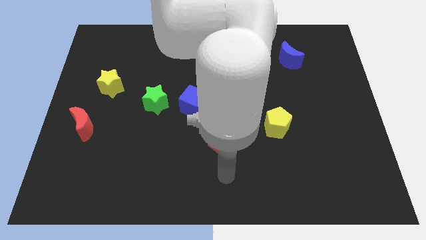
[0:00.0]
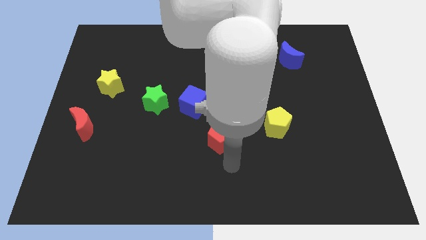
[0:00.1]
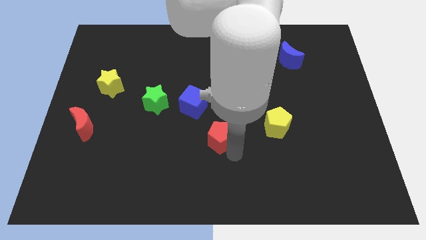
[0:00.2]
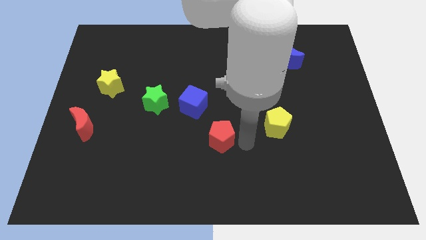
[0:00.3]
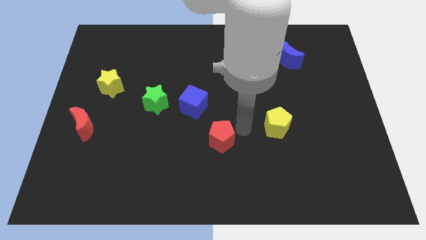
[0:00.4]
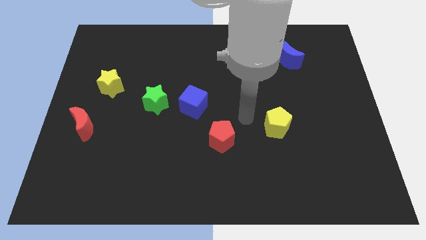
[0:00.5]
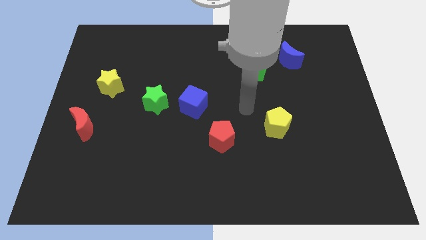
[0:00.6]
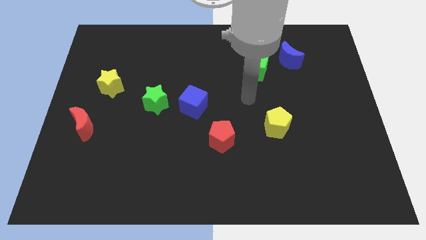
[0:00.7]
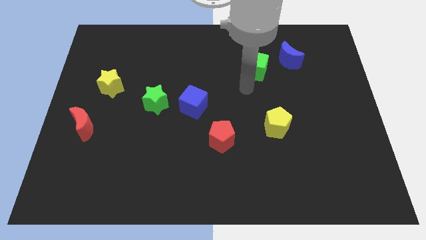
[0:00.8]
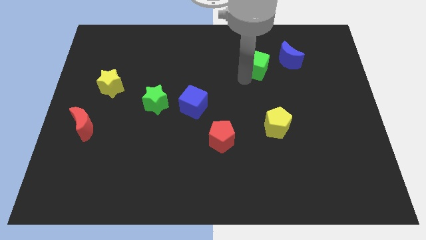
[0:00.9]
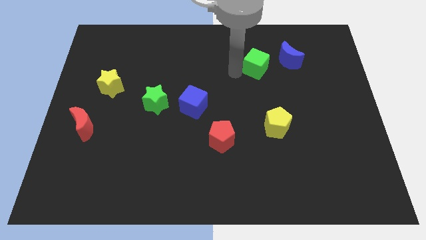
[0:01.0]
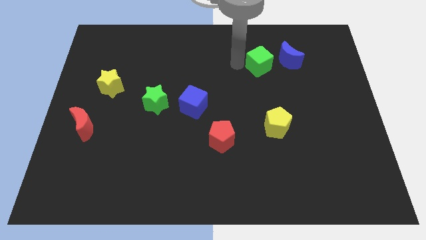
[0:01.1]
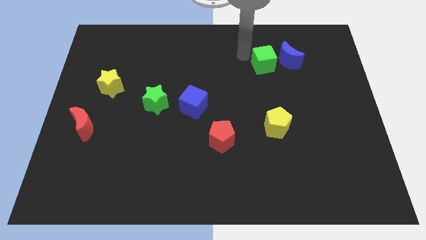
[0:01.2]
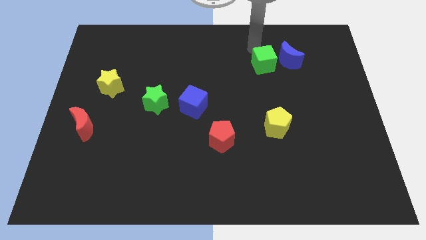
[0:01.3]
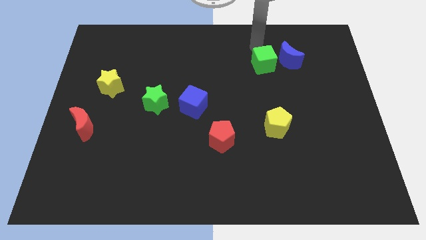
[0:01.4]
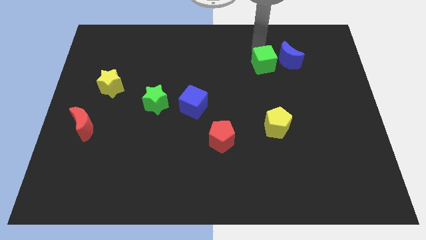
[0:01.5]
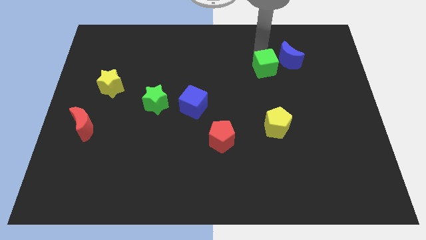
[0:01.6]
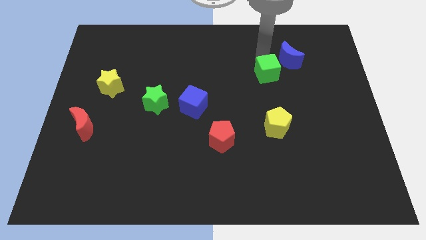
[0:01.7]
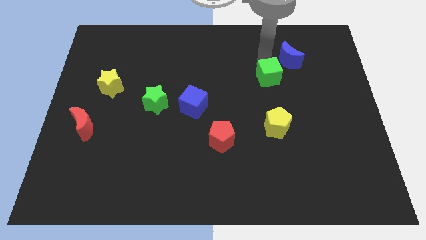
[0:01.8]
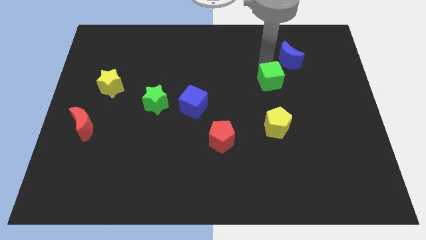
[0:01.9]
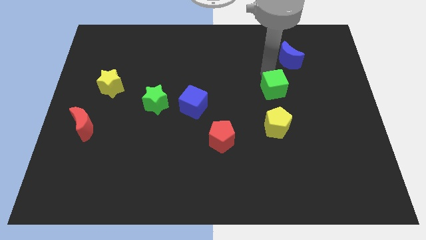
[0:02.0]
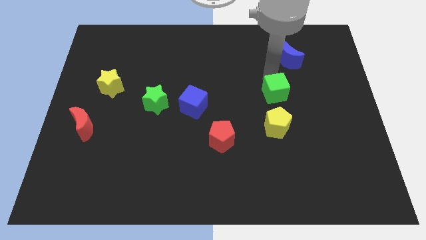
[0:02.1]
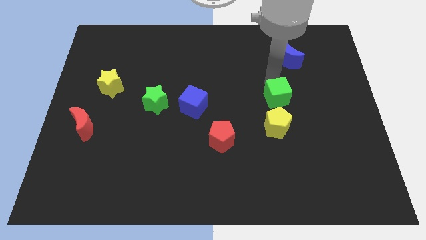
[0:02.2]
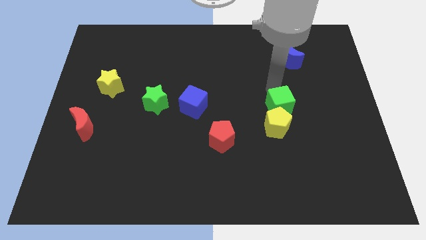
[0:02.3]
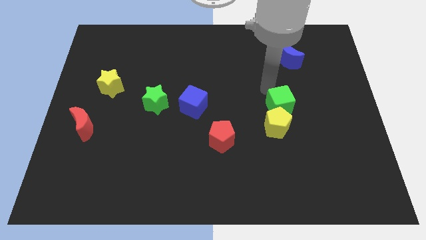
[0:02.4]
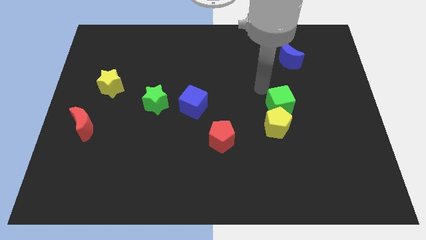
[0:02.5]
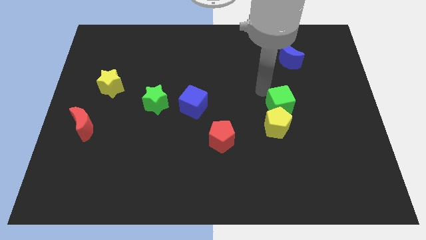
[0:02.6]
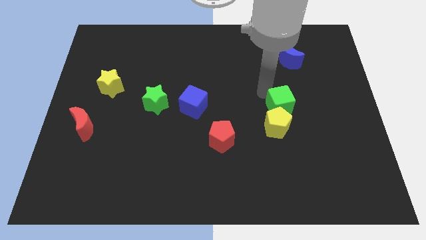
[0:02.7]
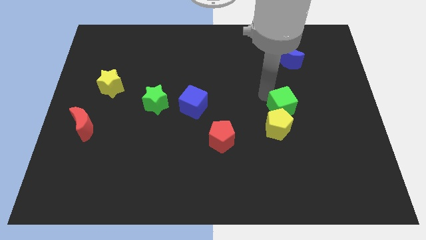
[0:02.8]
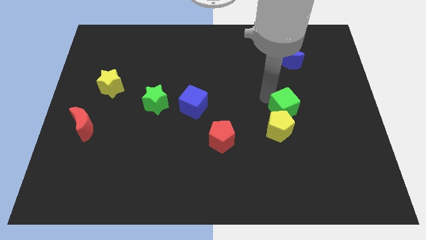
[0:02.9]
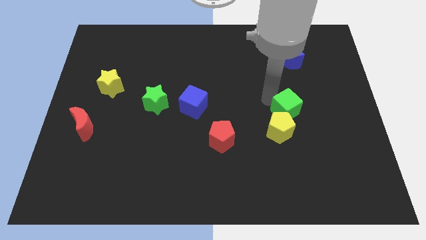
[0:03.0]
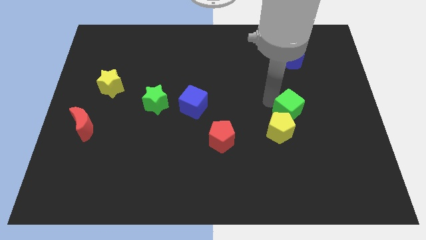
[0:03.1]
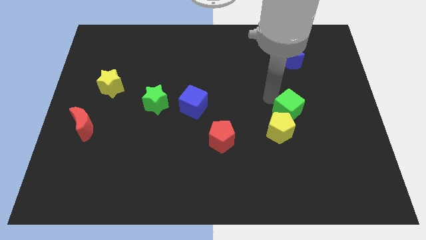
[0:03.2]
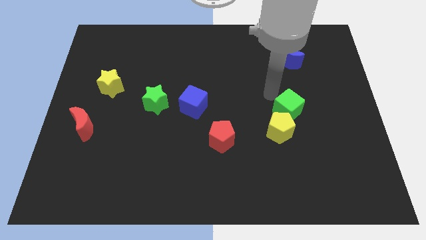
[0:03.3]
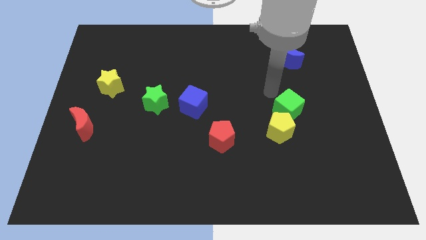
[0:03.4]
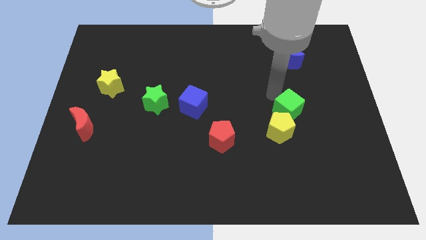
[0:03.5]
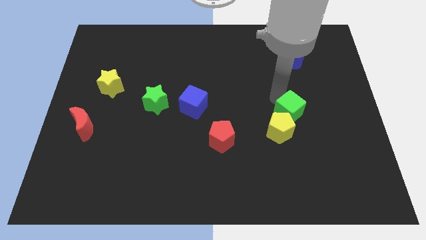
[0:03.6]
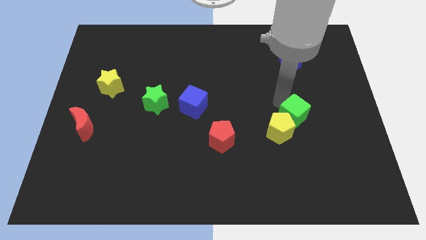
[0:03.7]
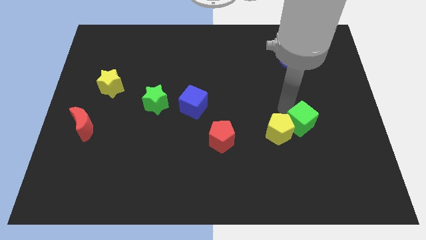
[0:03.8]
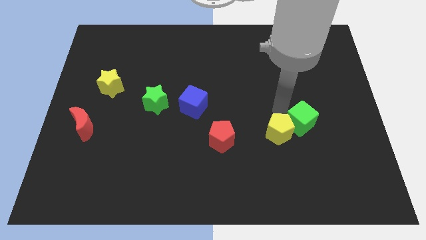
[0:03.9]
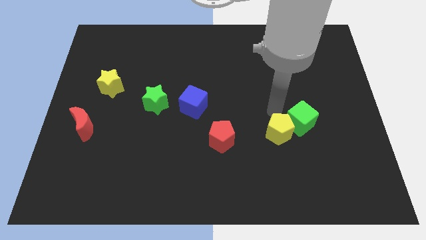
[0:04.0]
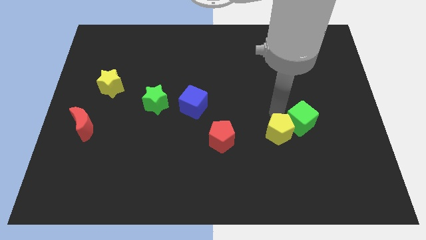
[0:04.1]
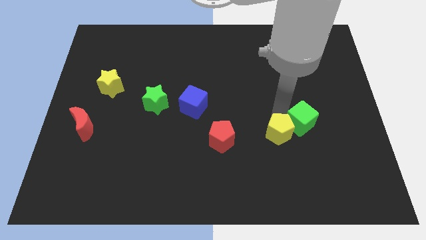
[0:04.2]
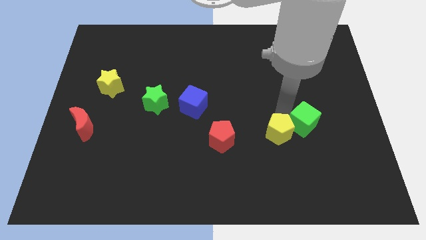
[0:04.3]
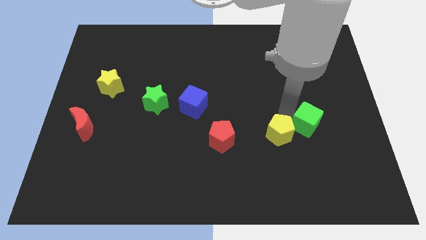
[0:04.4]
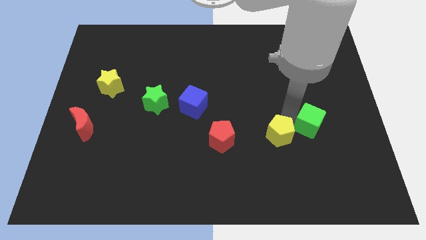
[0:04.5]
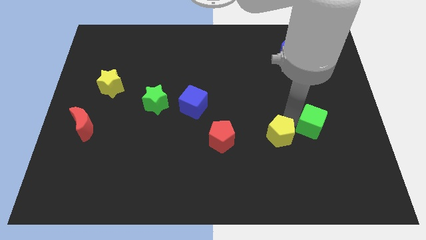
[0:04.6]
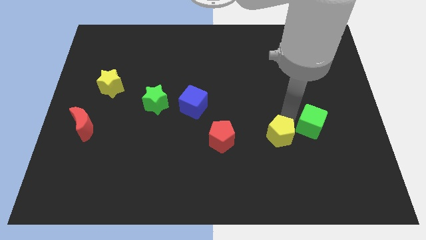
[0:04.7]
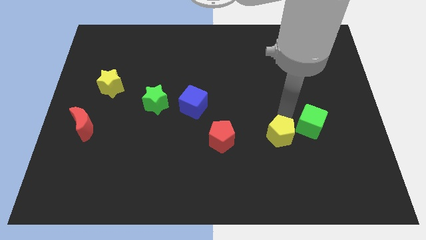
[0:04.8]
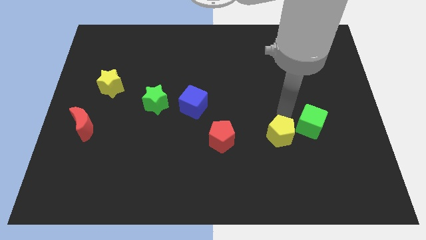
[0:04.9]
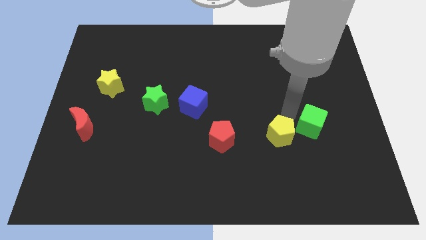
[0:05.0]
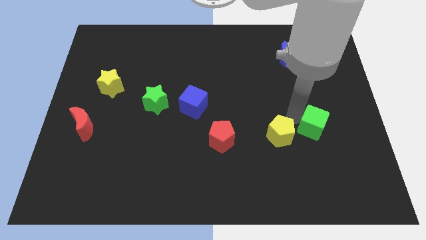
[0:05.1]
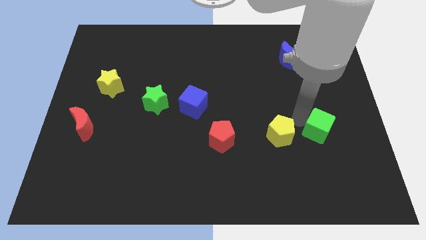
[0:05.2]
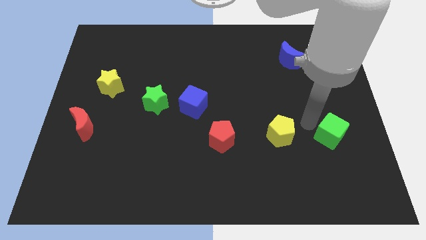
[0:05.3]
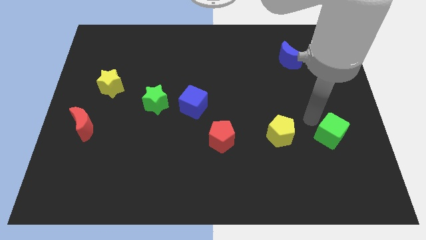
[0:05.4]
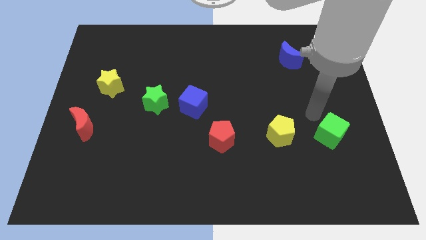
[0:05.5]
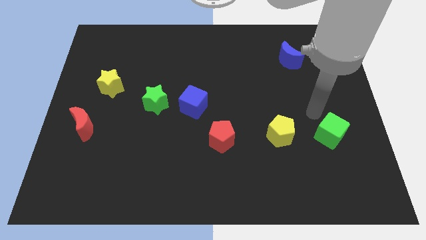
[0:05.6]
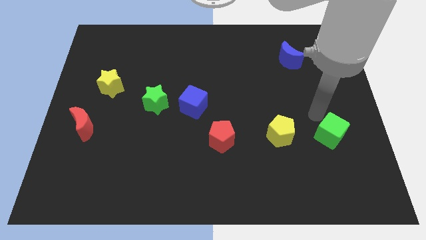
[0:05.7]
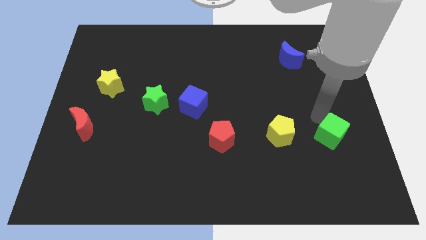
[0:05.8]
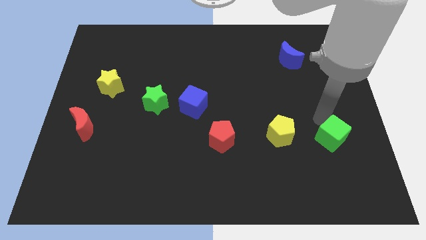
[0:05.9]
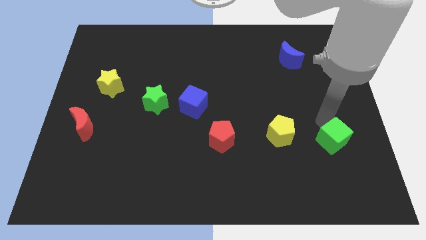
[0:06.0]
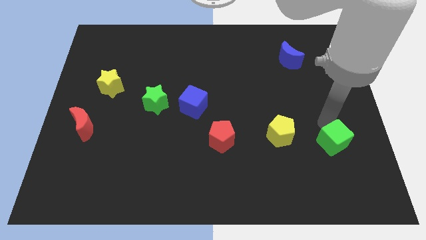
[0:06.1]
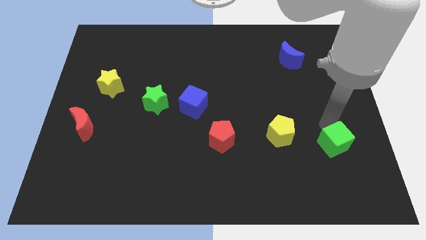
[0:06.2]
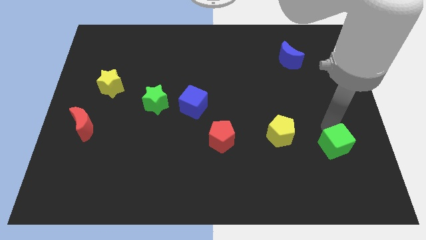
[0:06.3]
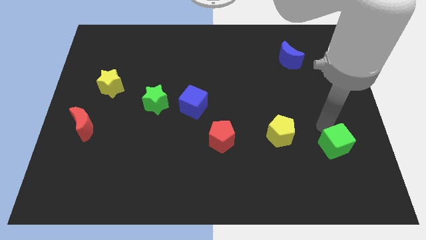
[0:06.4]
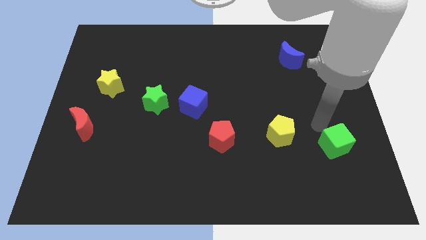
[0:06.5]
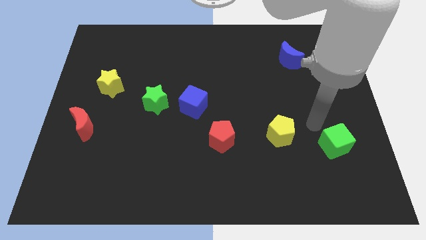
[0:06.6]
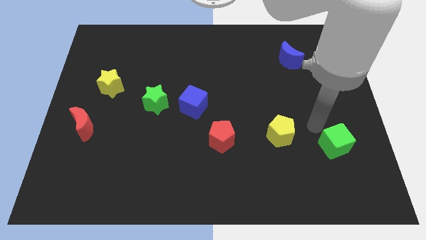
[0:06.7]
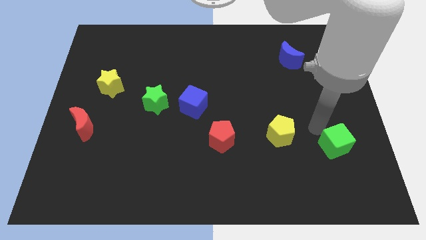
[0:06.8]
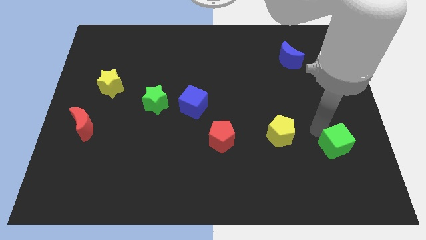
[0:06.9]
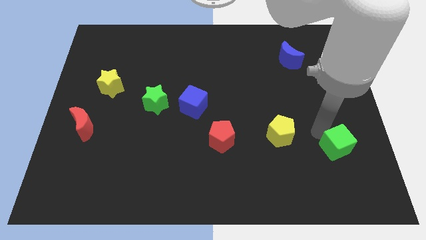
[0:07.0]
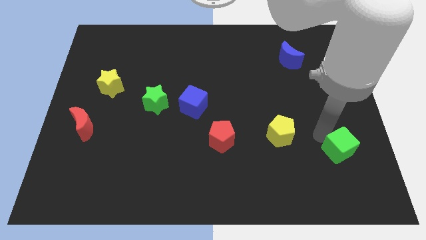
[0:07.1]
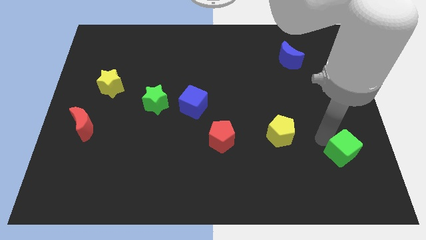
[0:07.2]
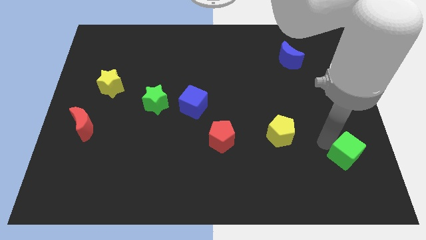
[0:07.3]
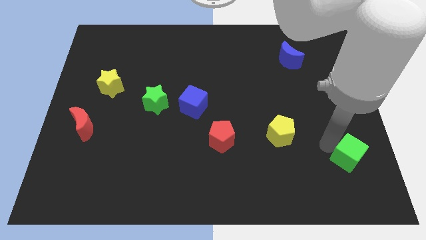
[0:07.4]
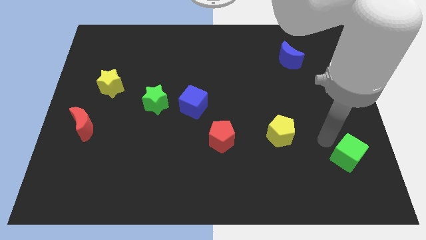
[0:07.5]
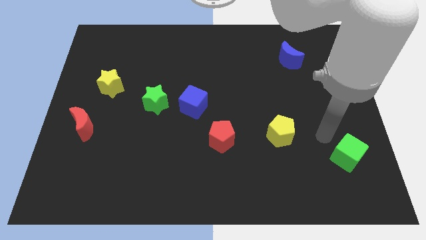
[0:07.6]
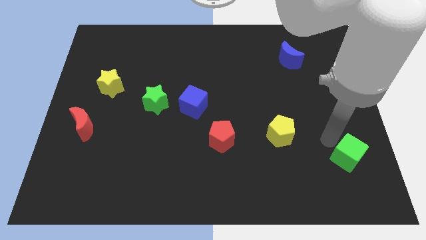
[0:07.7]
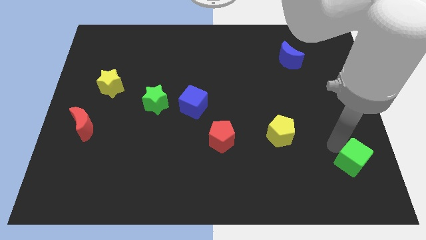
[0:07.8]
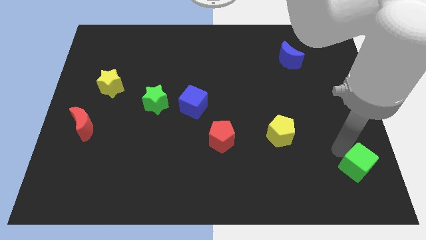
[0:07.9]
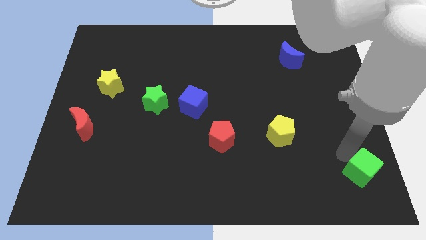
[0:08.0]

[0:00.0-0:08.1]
slide the green cube to the bottom right
